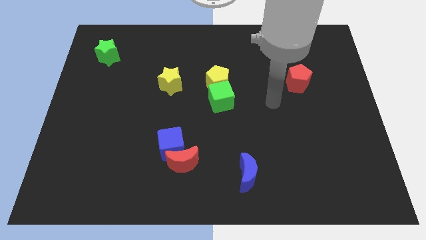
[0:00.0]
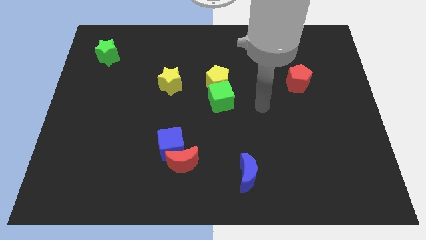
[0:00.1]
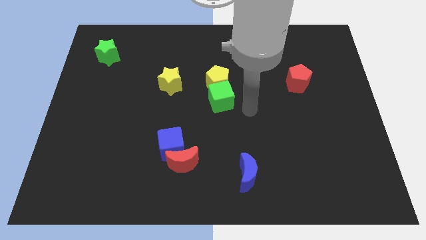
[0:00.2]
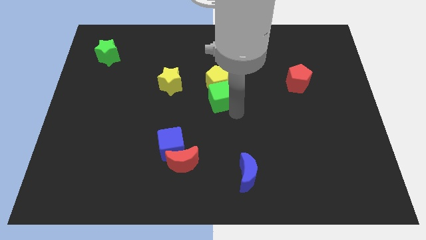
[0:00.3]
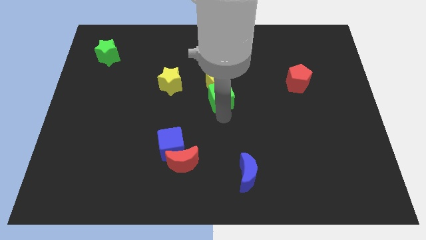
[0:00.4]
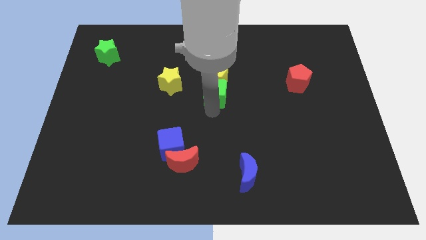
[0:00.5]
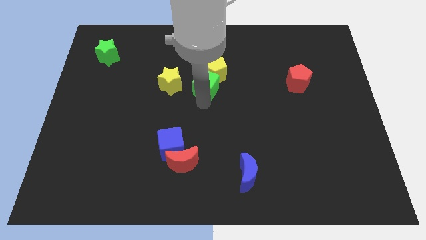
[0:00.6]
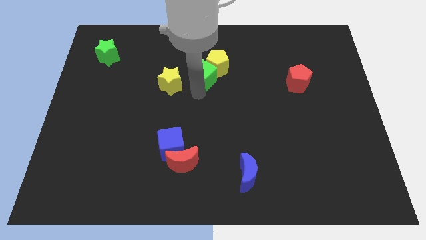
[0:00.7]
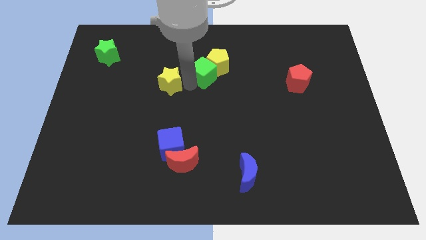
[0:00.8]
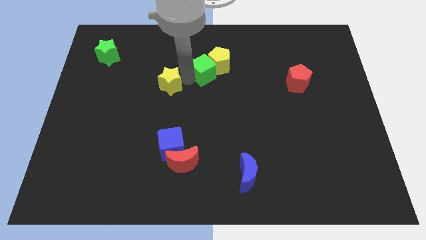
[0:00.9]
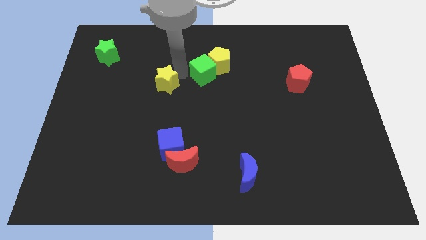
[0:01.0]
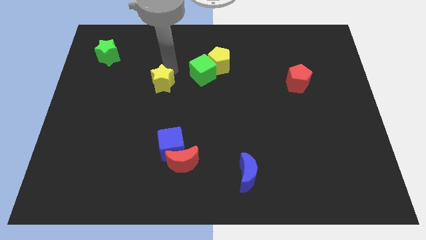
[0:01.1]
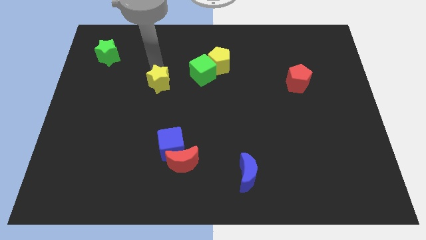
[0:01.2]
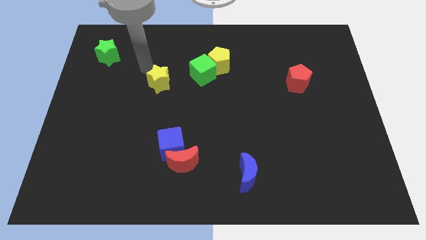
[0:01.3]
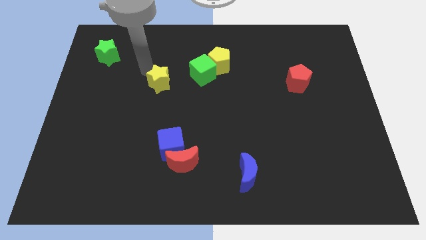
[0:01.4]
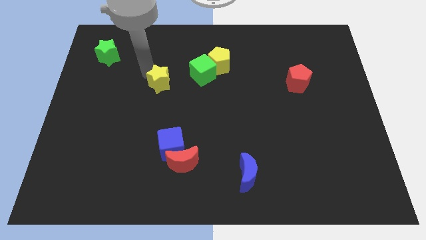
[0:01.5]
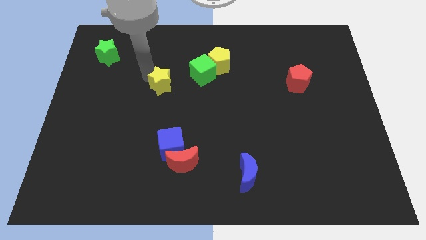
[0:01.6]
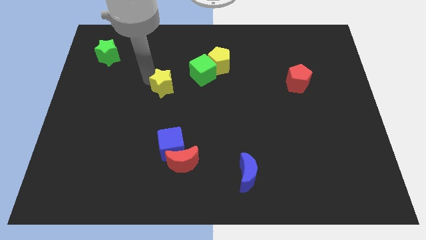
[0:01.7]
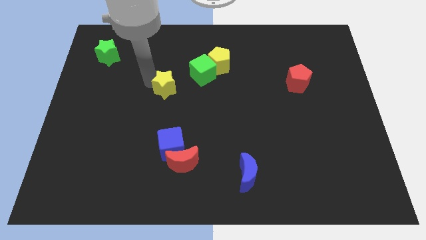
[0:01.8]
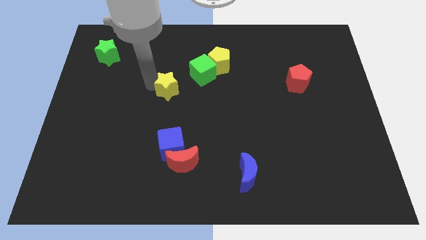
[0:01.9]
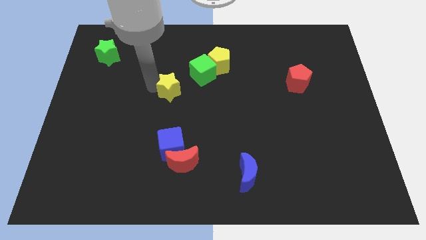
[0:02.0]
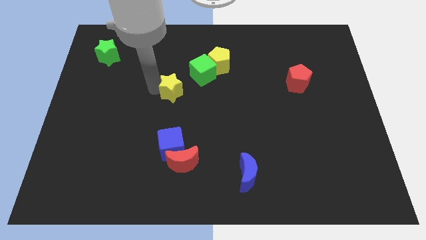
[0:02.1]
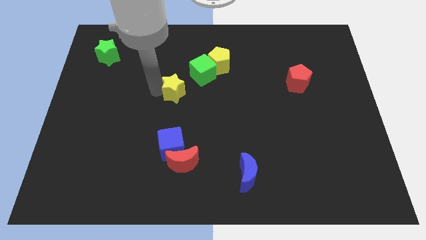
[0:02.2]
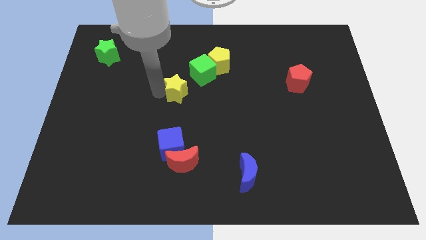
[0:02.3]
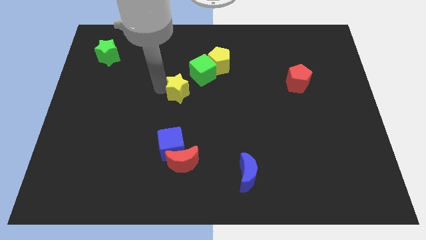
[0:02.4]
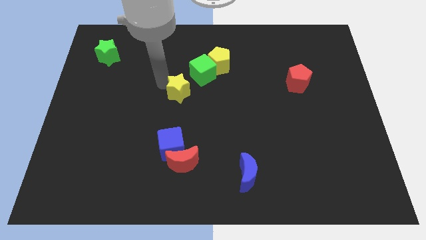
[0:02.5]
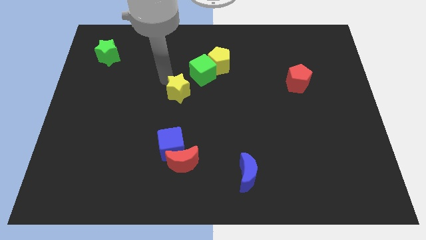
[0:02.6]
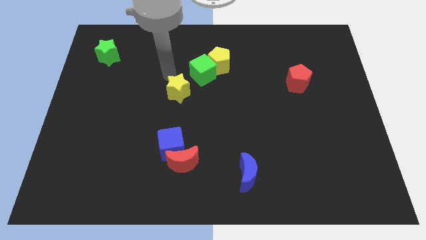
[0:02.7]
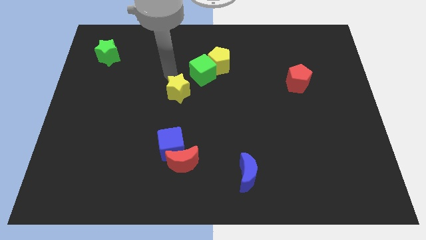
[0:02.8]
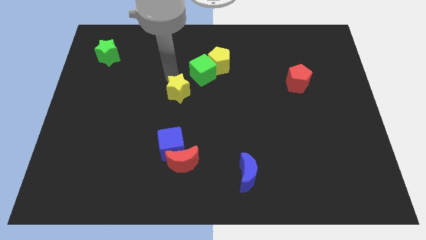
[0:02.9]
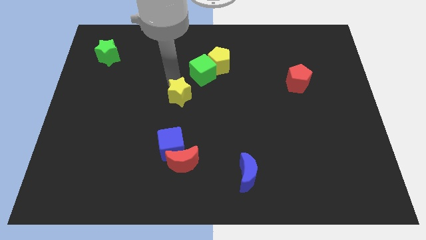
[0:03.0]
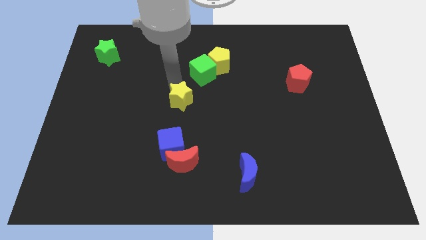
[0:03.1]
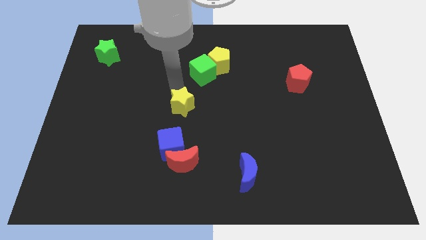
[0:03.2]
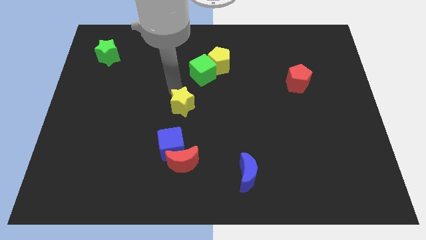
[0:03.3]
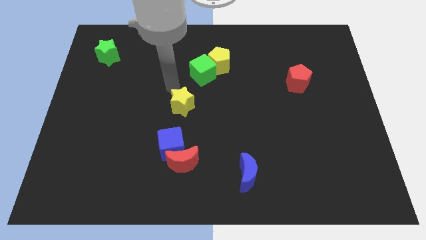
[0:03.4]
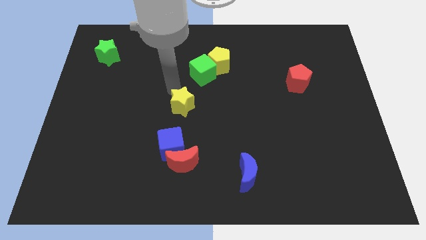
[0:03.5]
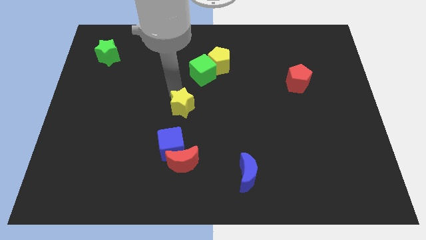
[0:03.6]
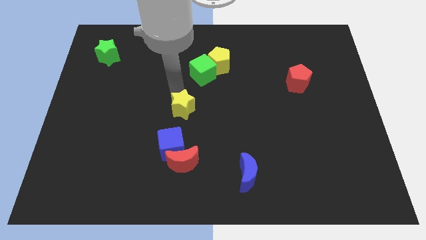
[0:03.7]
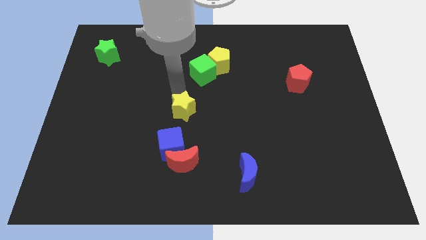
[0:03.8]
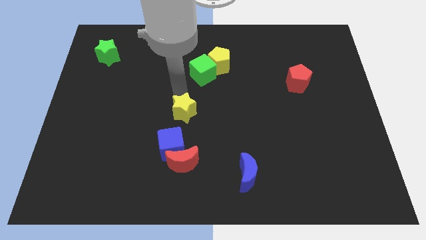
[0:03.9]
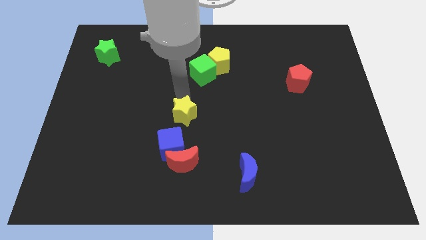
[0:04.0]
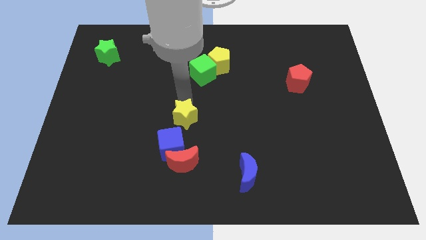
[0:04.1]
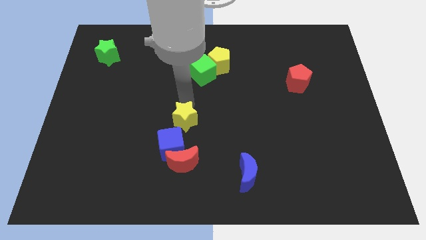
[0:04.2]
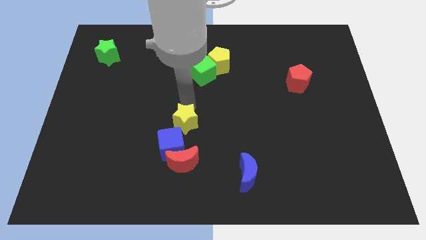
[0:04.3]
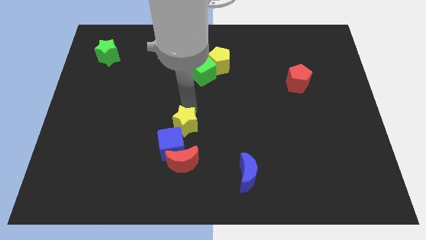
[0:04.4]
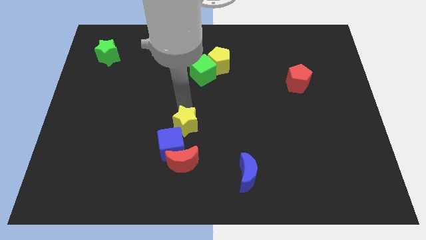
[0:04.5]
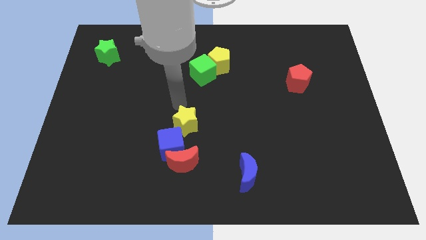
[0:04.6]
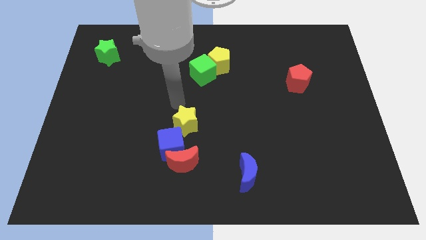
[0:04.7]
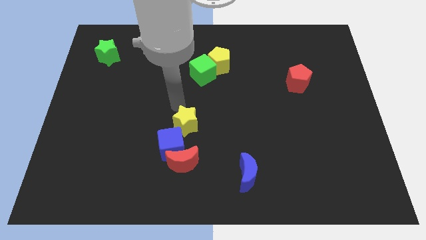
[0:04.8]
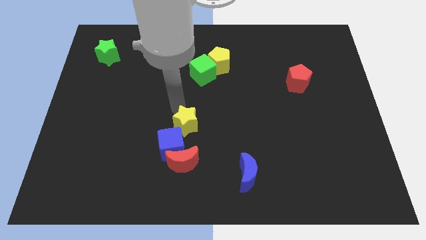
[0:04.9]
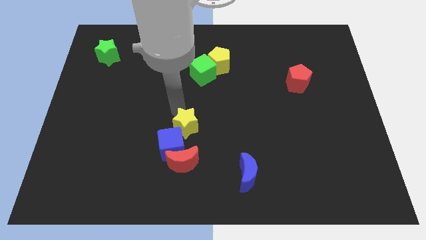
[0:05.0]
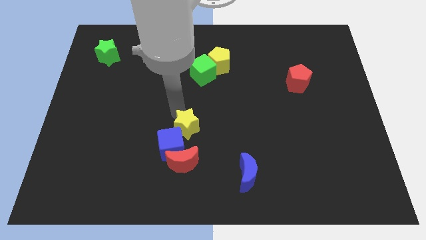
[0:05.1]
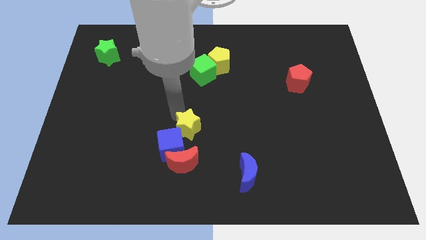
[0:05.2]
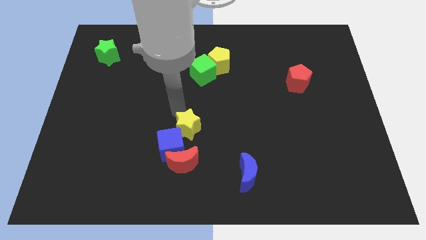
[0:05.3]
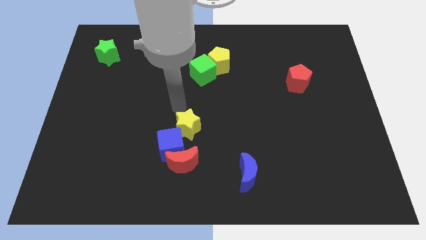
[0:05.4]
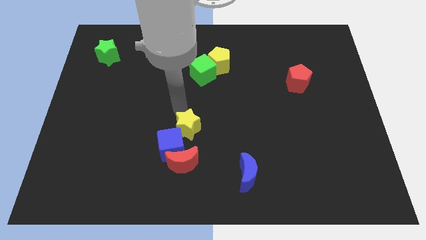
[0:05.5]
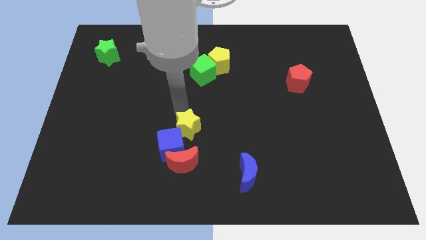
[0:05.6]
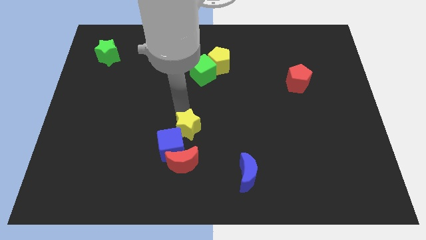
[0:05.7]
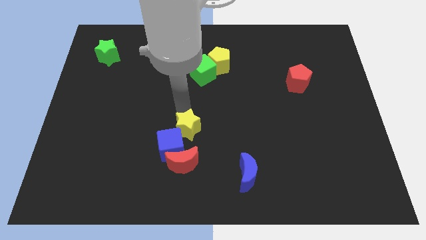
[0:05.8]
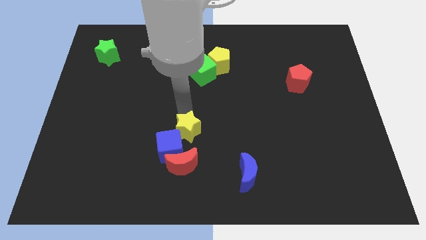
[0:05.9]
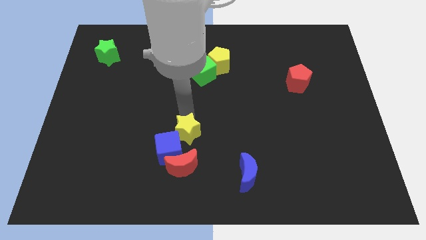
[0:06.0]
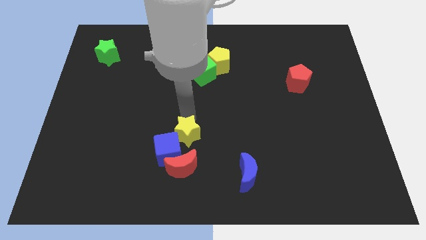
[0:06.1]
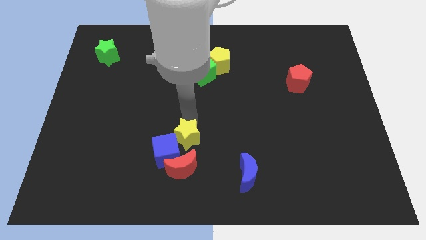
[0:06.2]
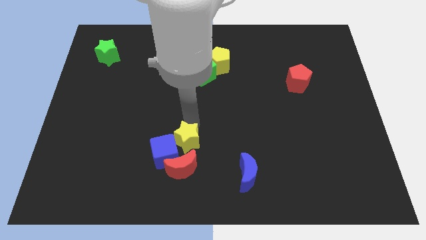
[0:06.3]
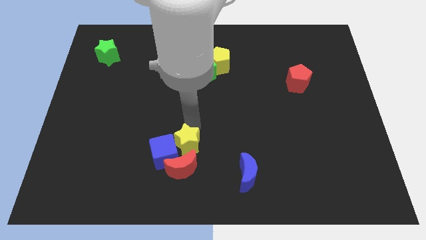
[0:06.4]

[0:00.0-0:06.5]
put the yellow star to the red moon
